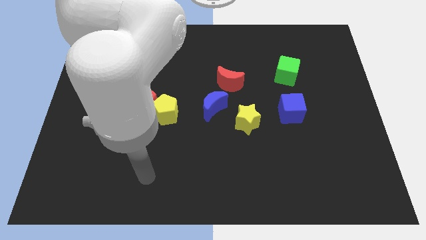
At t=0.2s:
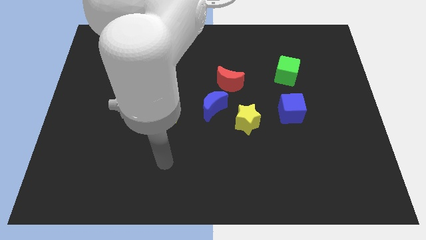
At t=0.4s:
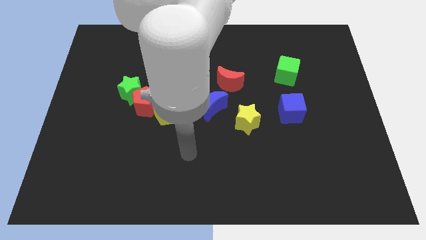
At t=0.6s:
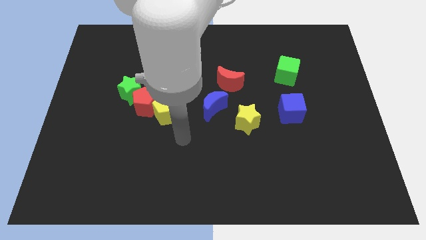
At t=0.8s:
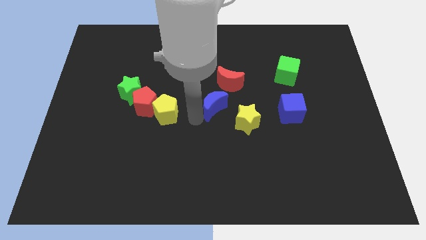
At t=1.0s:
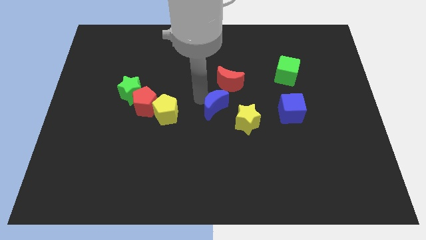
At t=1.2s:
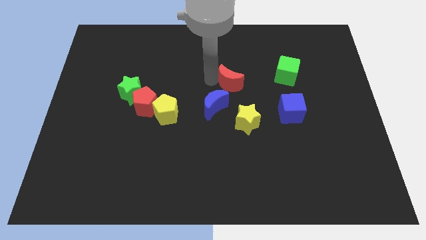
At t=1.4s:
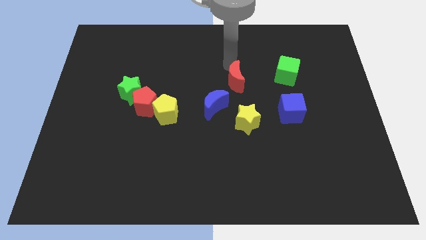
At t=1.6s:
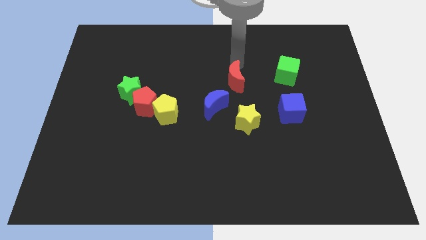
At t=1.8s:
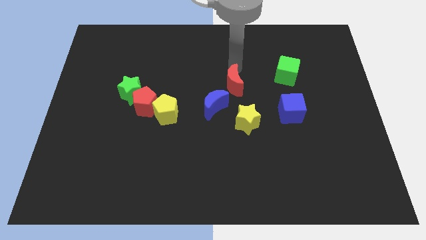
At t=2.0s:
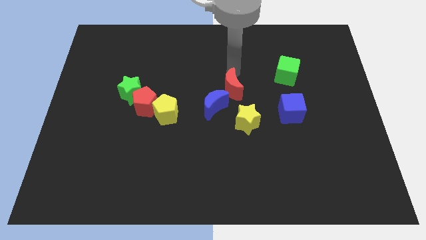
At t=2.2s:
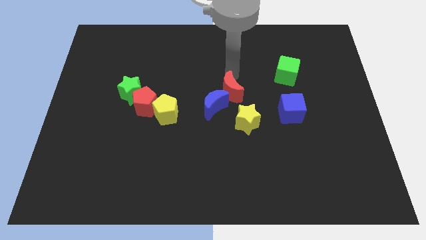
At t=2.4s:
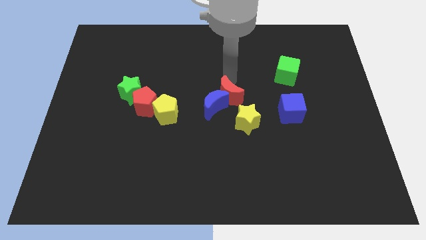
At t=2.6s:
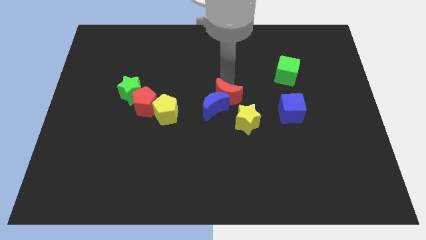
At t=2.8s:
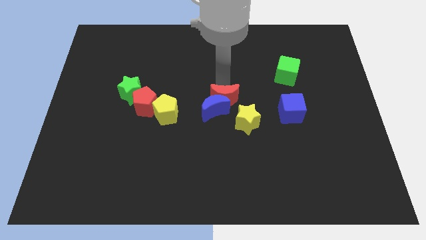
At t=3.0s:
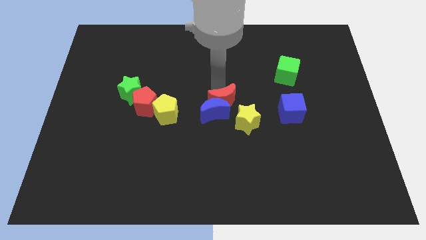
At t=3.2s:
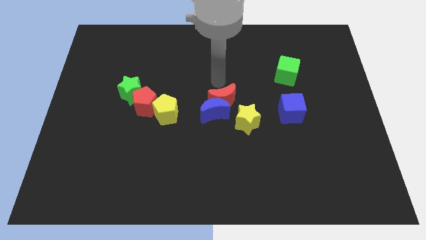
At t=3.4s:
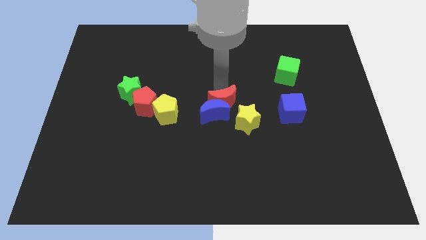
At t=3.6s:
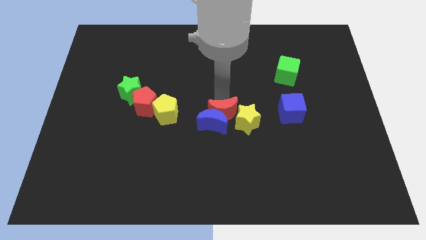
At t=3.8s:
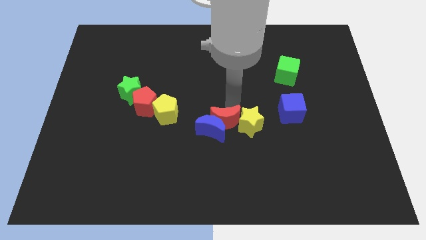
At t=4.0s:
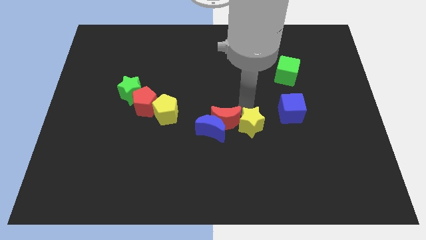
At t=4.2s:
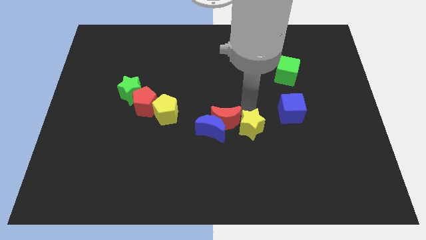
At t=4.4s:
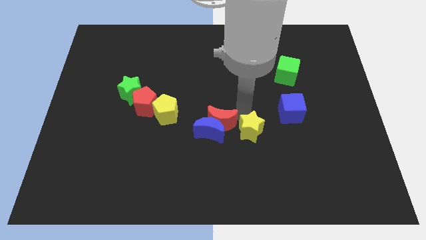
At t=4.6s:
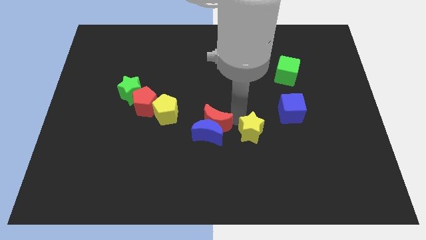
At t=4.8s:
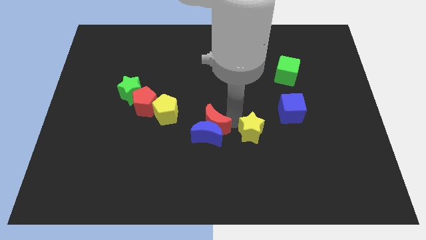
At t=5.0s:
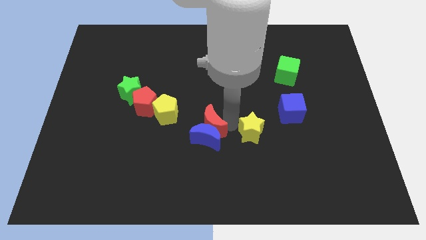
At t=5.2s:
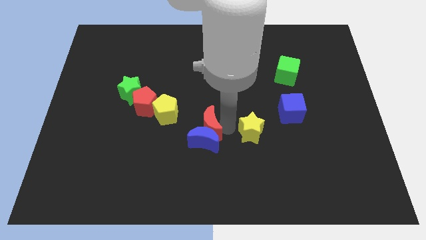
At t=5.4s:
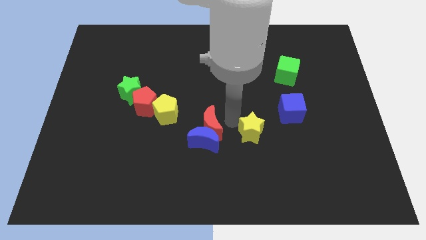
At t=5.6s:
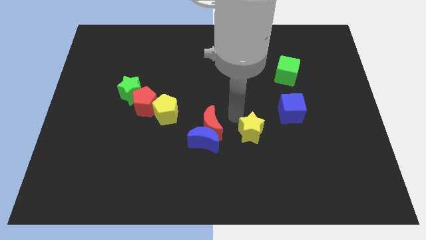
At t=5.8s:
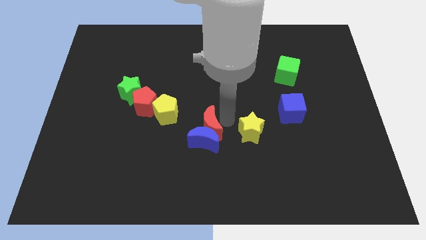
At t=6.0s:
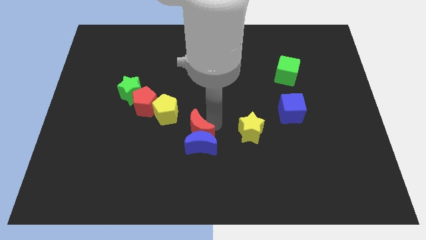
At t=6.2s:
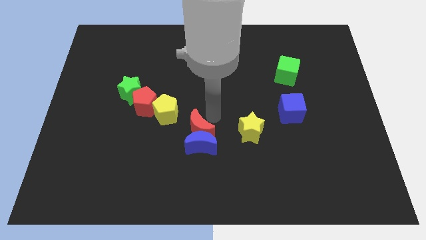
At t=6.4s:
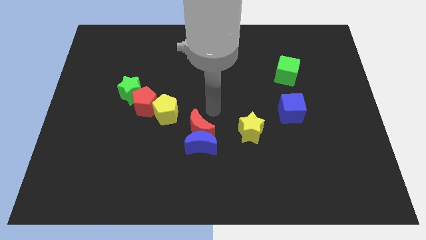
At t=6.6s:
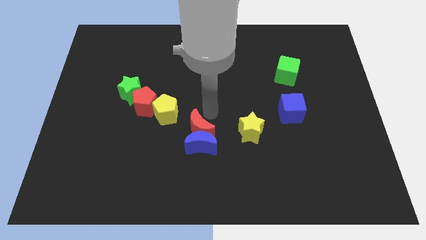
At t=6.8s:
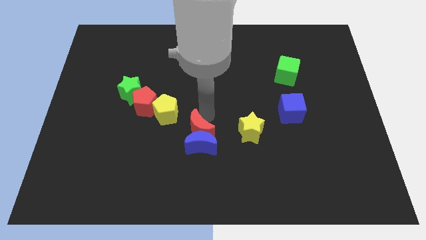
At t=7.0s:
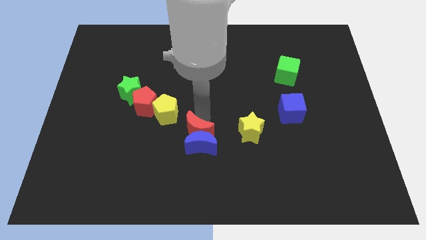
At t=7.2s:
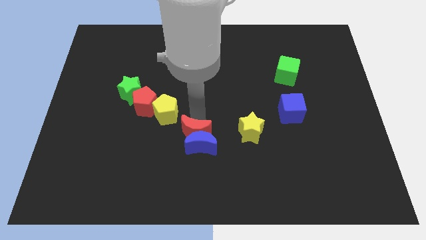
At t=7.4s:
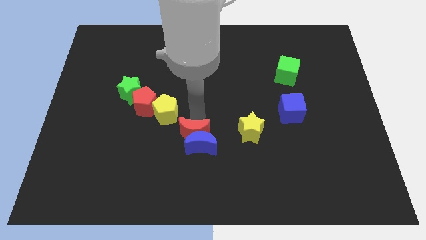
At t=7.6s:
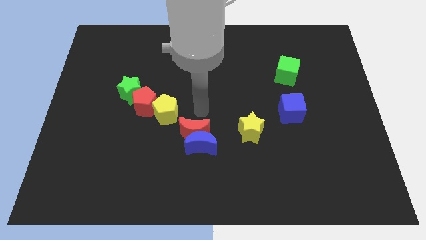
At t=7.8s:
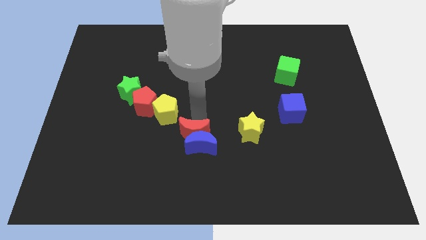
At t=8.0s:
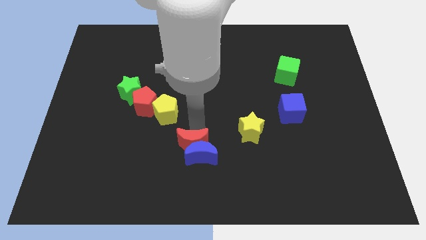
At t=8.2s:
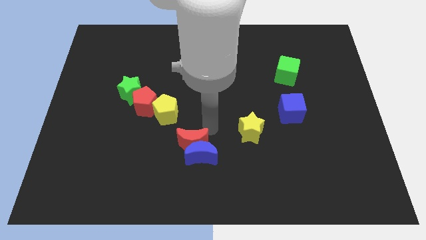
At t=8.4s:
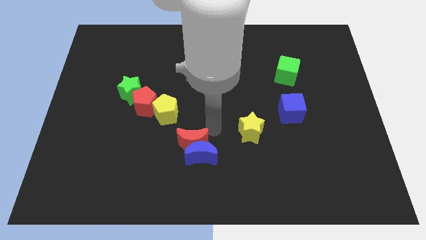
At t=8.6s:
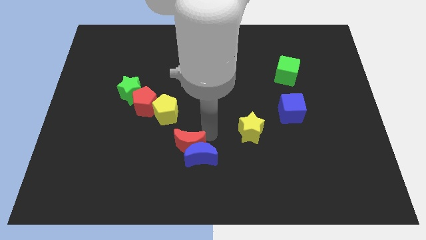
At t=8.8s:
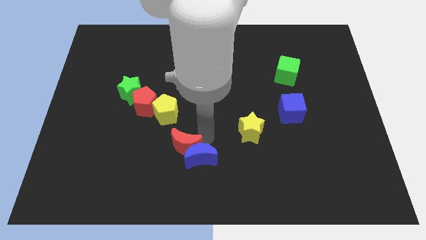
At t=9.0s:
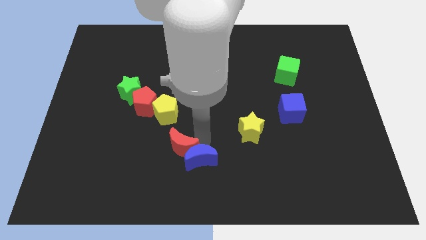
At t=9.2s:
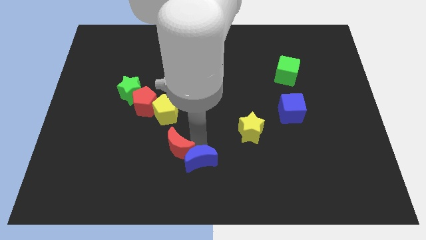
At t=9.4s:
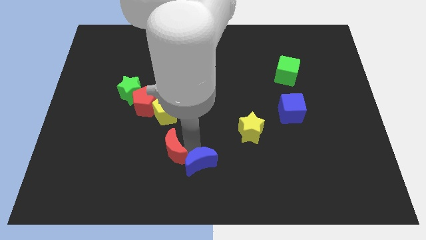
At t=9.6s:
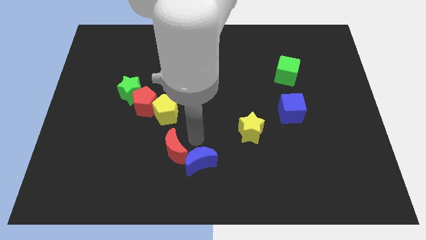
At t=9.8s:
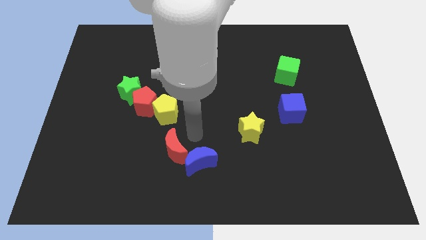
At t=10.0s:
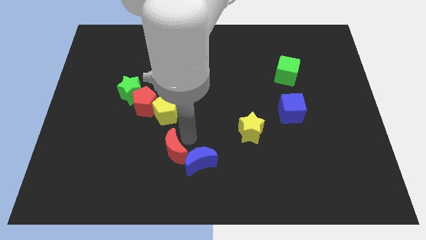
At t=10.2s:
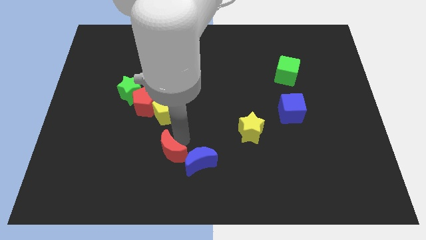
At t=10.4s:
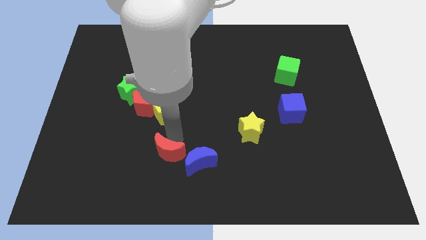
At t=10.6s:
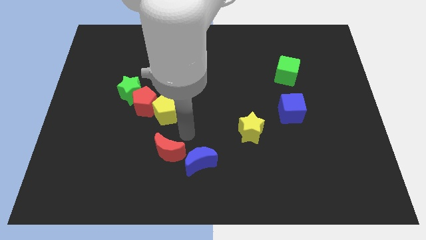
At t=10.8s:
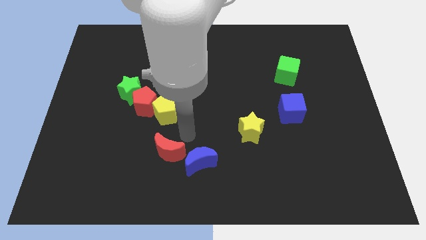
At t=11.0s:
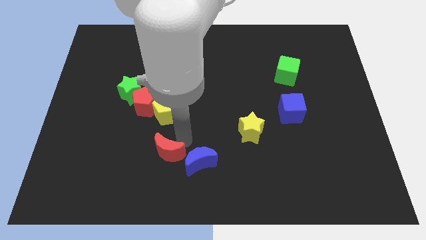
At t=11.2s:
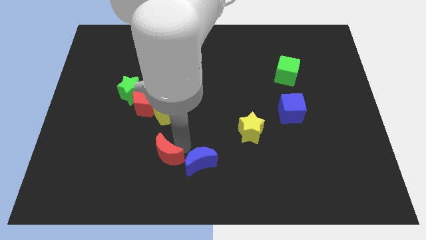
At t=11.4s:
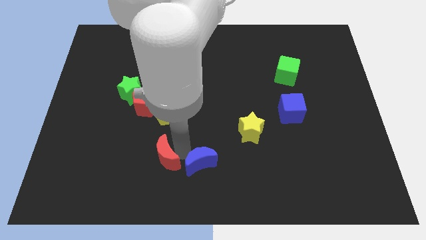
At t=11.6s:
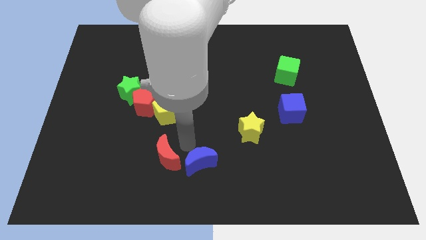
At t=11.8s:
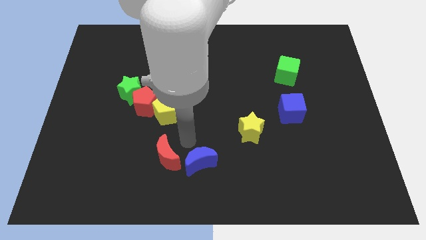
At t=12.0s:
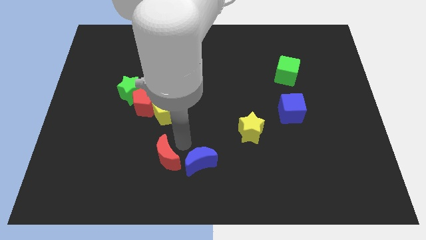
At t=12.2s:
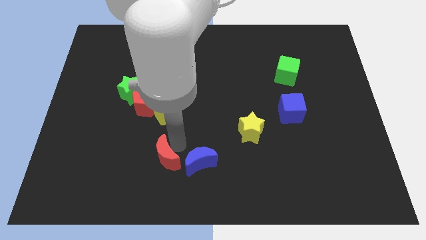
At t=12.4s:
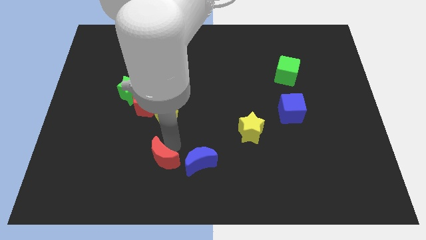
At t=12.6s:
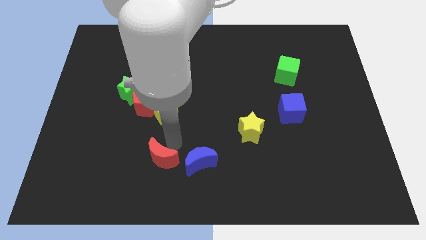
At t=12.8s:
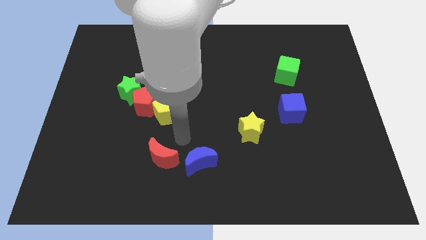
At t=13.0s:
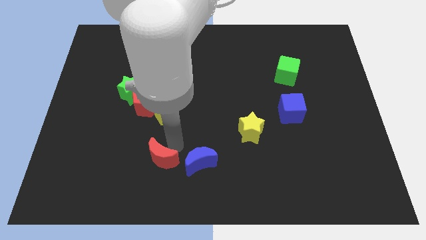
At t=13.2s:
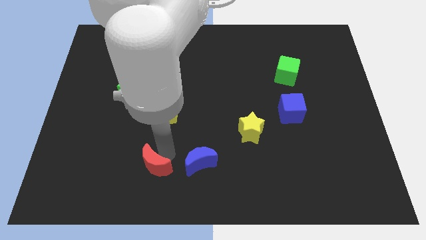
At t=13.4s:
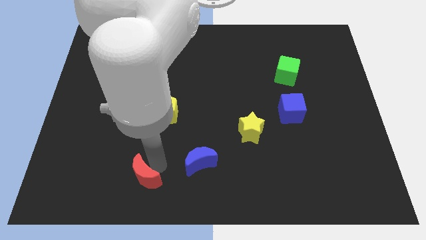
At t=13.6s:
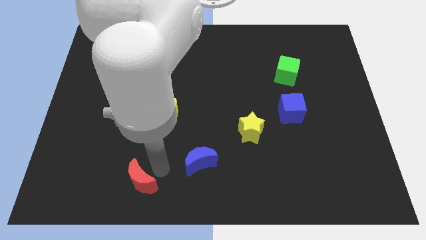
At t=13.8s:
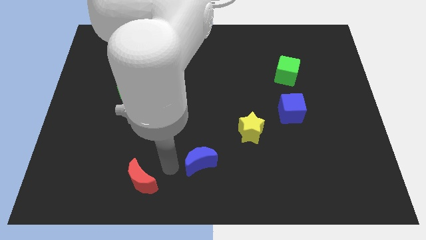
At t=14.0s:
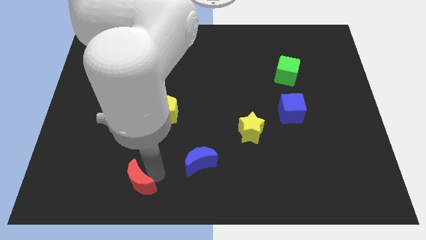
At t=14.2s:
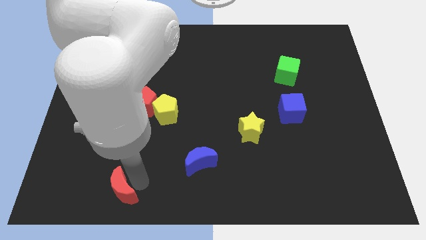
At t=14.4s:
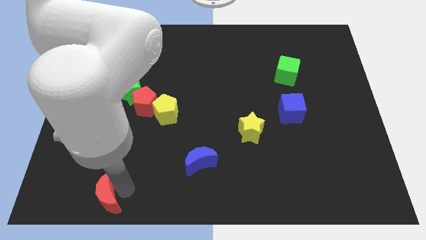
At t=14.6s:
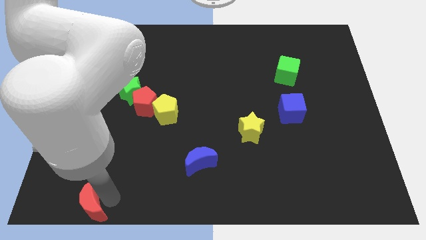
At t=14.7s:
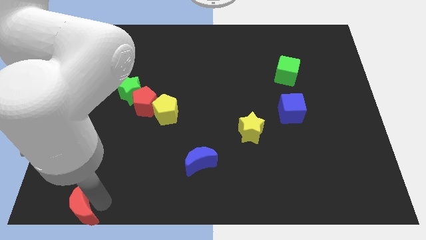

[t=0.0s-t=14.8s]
slide the red moon to the bottom left corner
